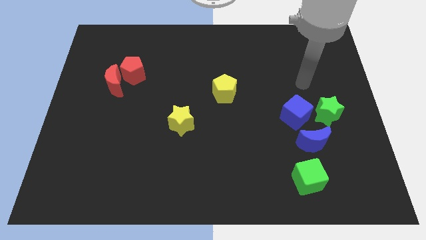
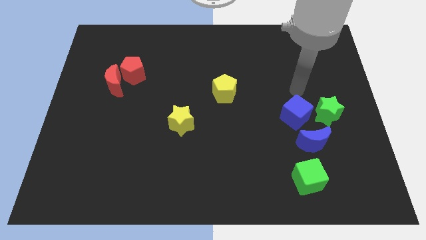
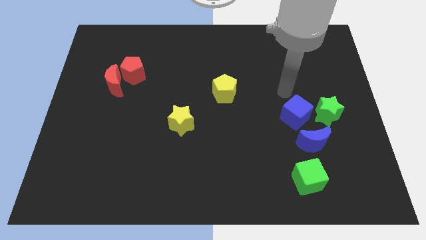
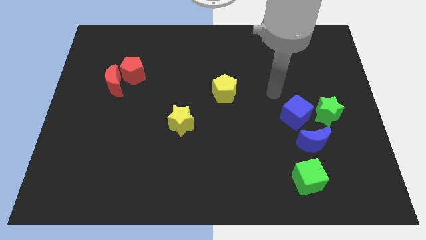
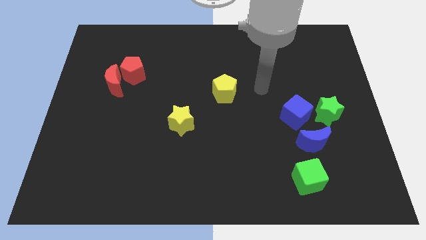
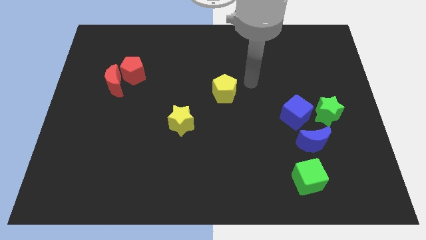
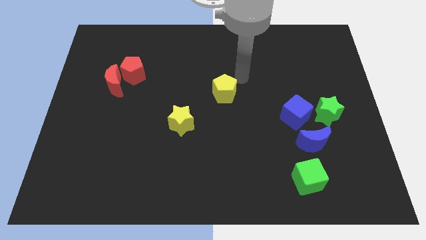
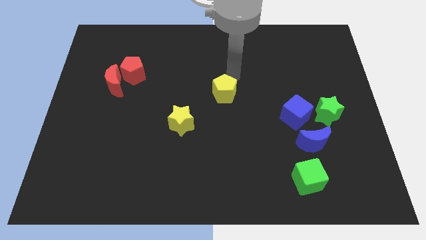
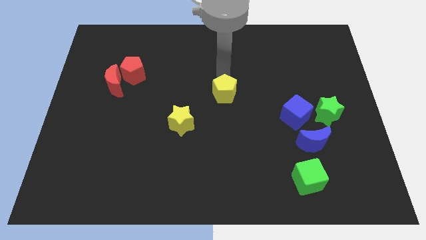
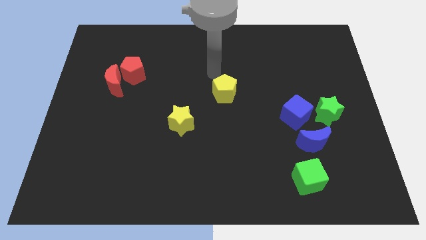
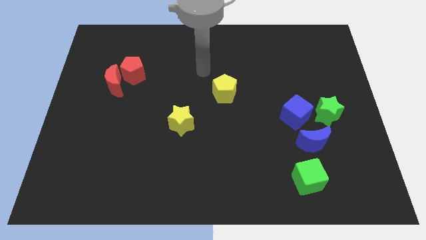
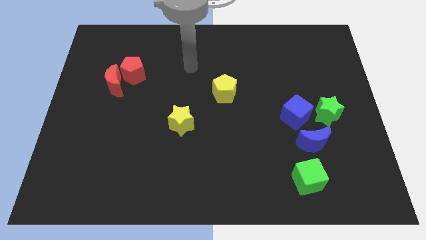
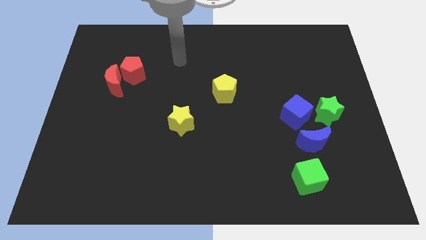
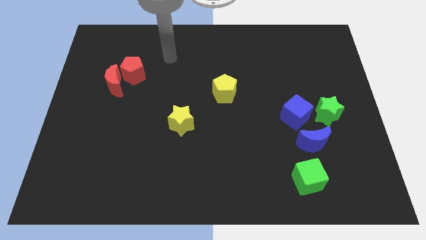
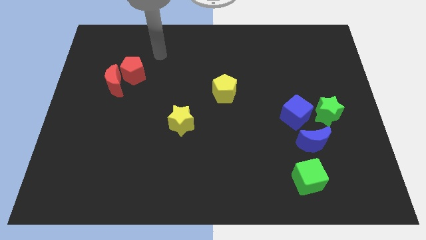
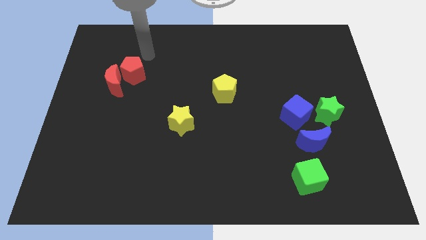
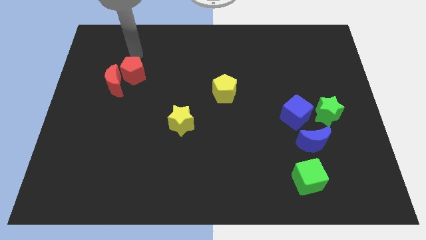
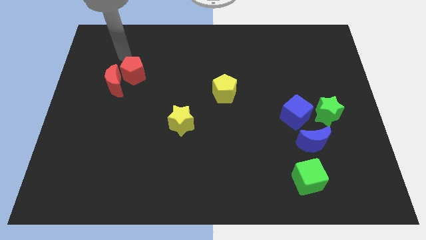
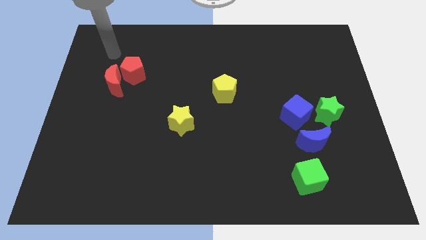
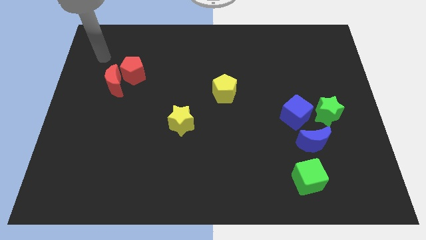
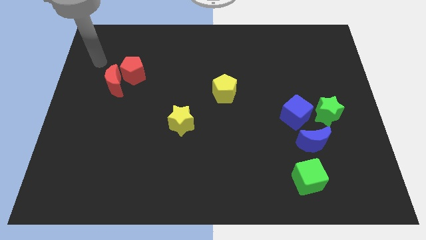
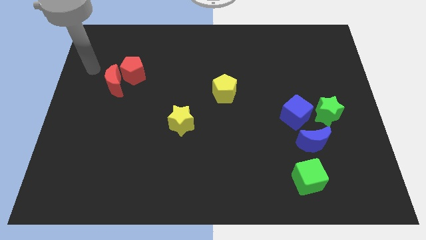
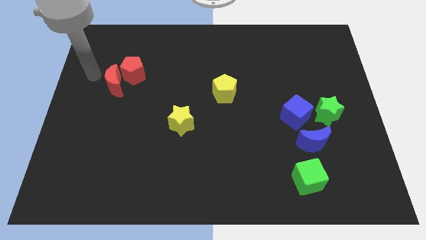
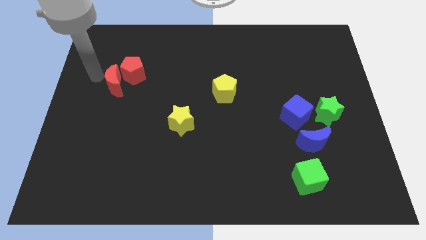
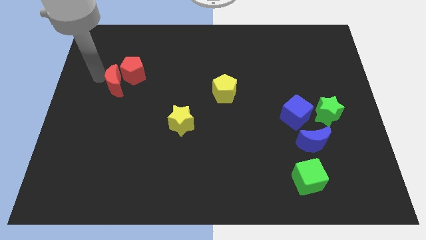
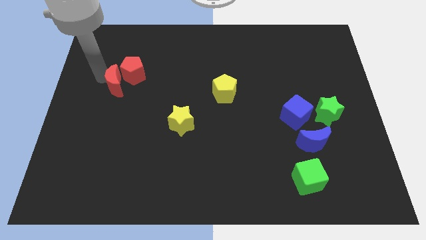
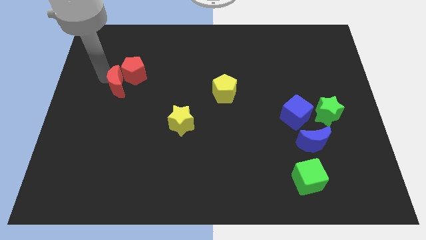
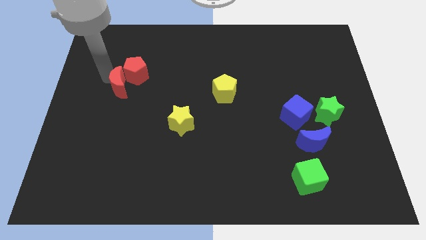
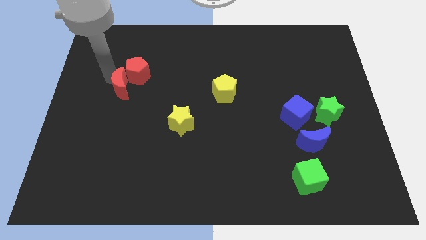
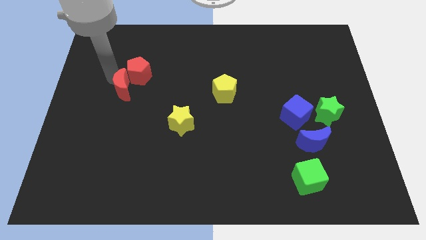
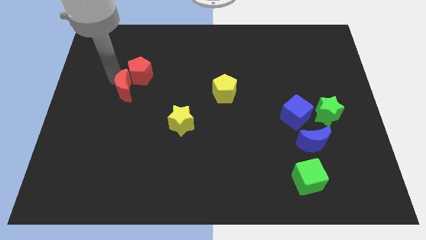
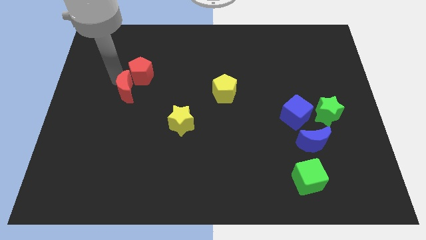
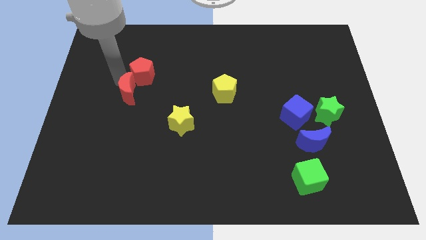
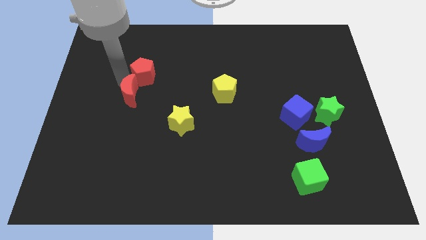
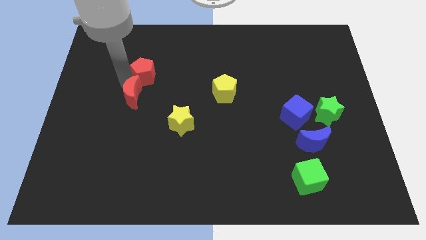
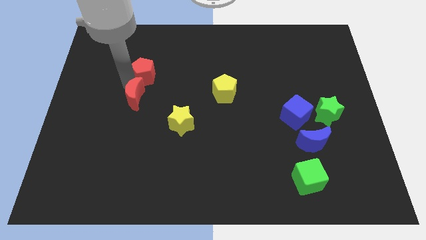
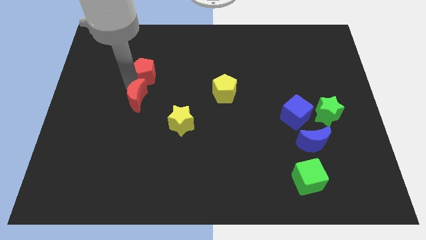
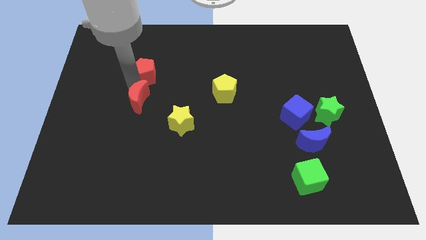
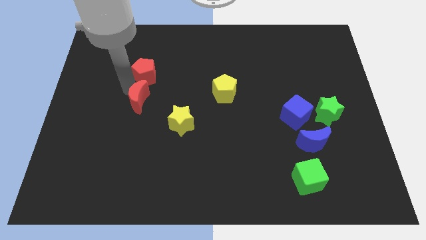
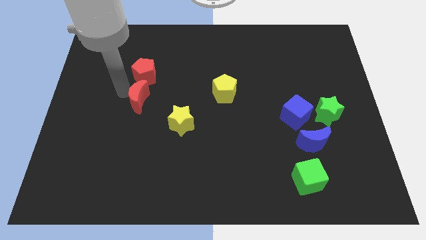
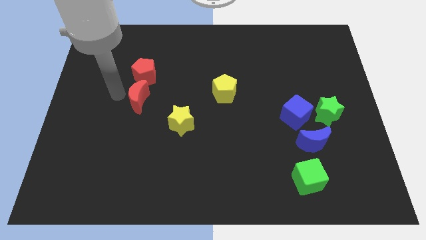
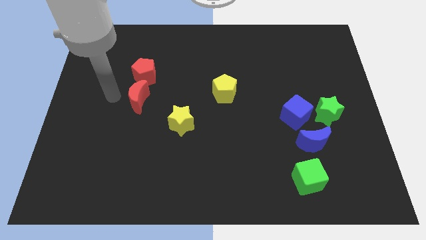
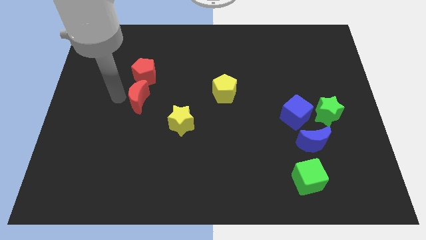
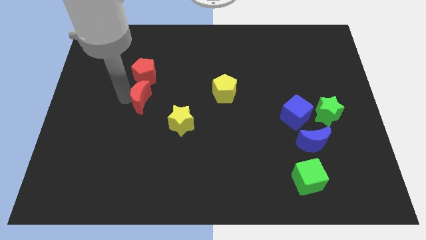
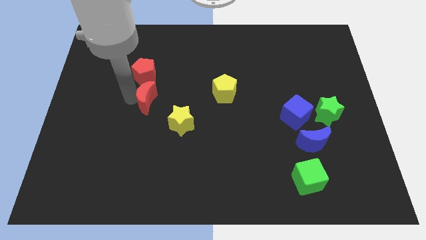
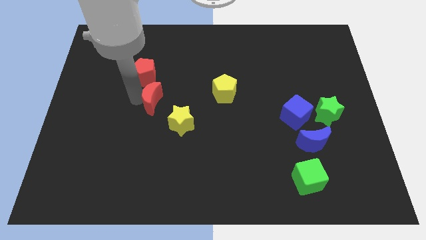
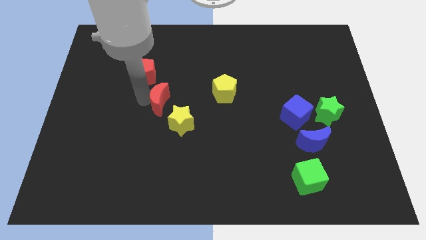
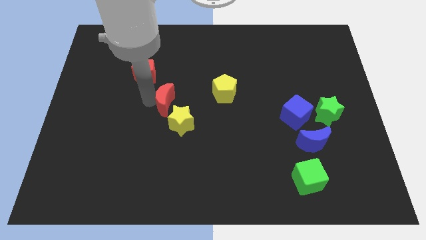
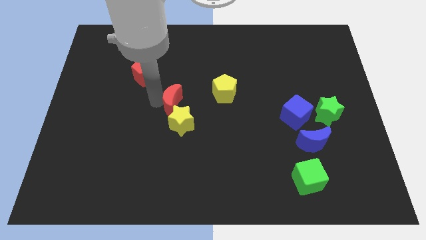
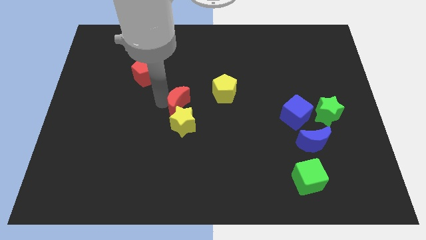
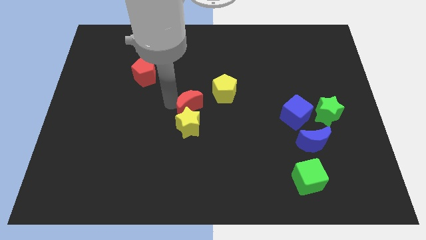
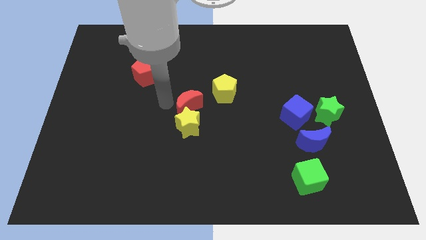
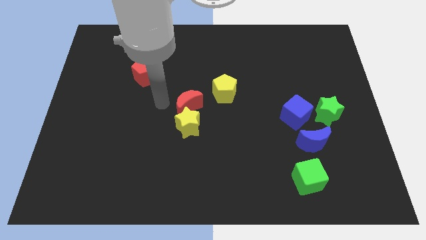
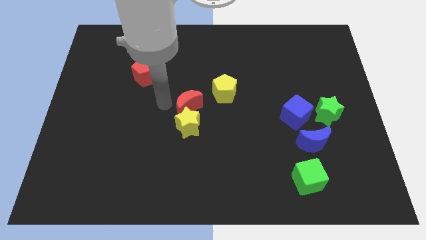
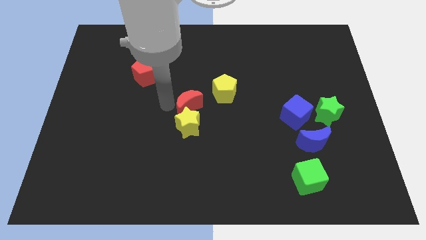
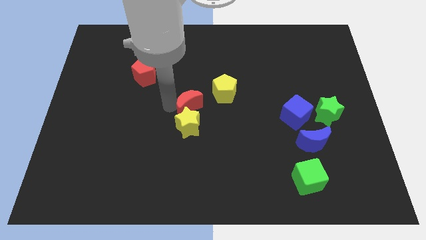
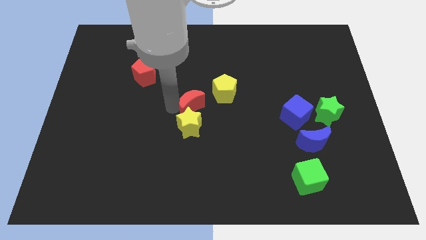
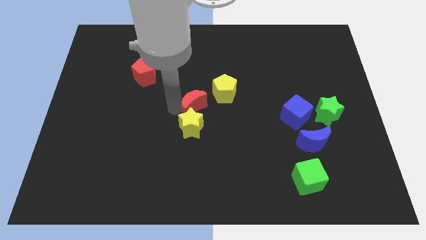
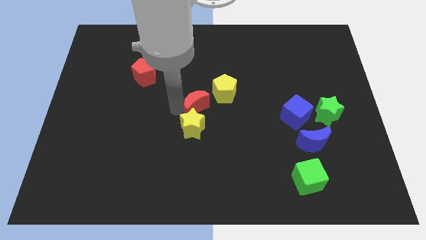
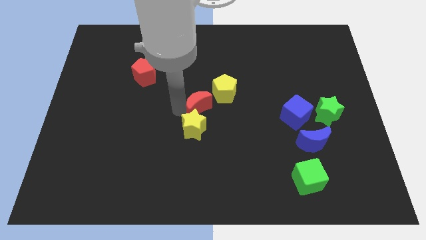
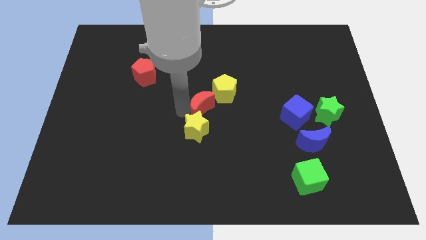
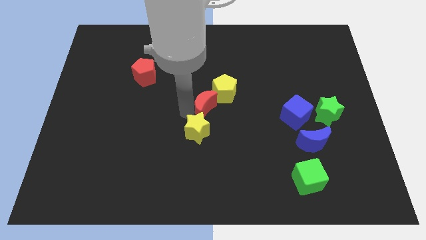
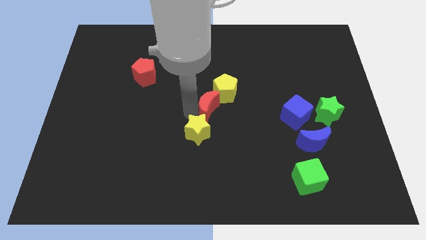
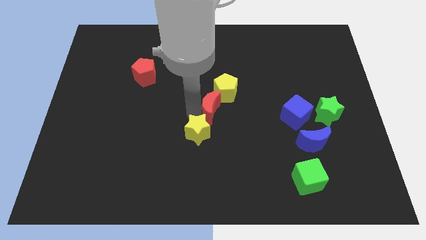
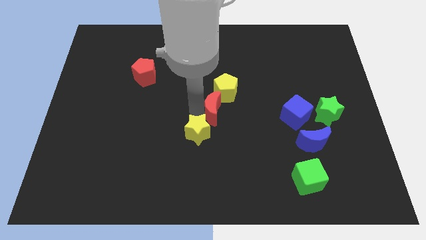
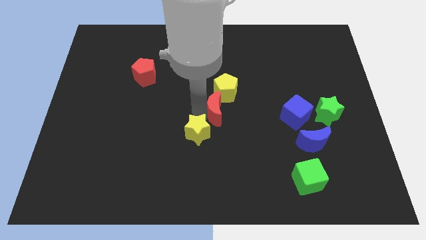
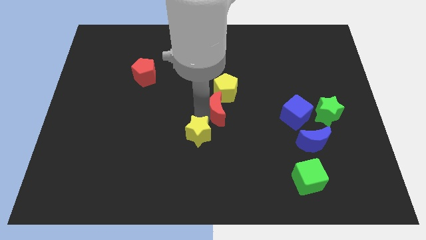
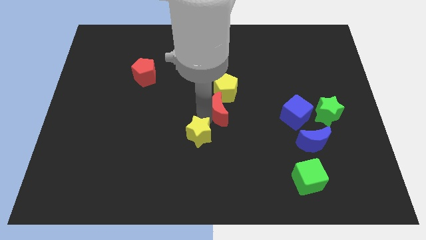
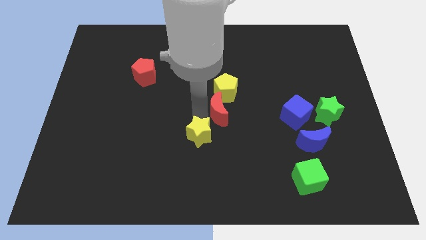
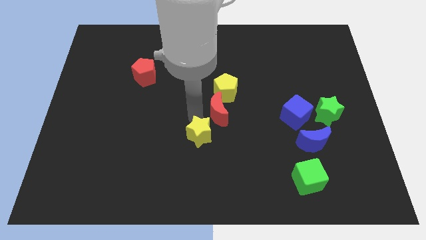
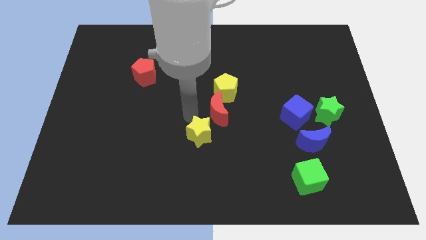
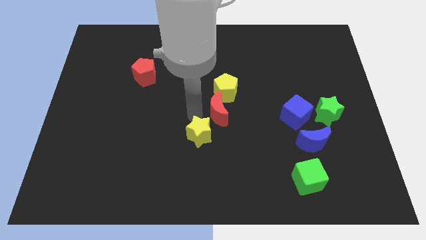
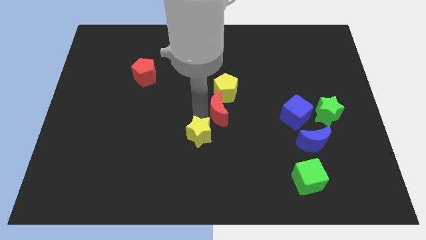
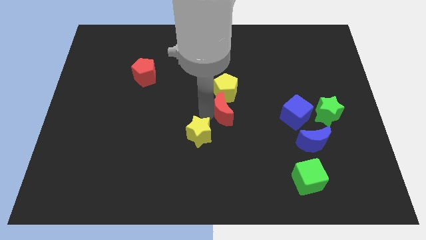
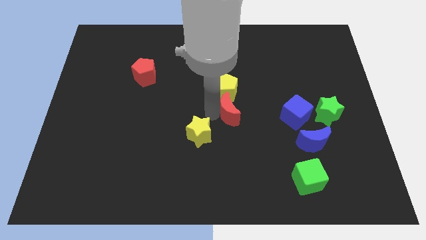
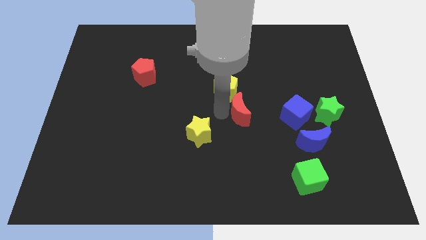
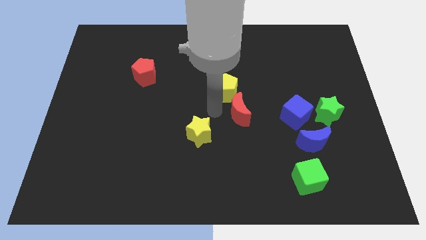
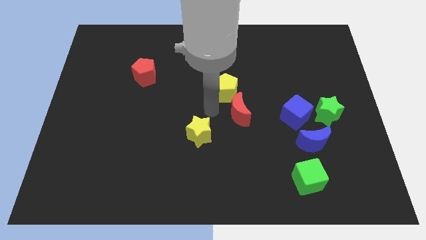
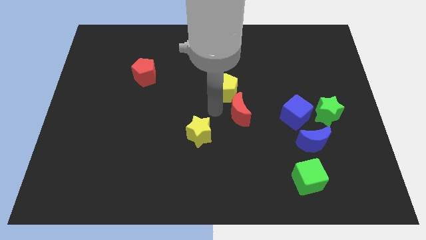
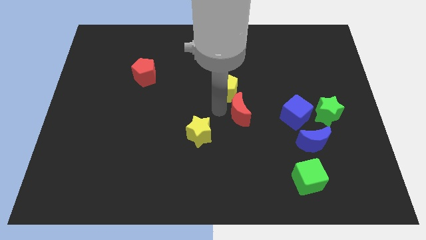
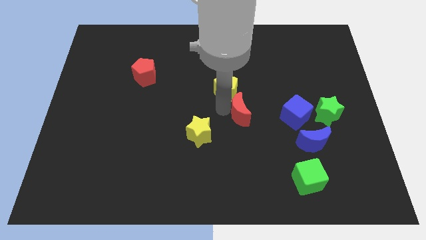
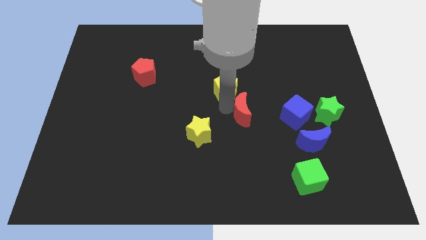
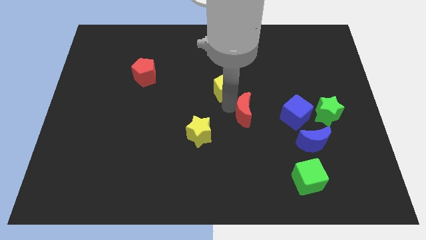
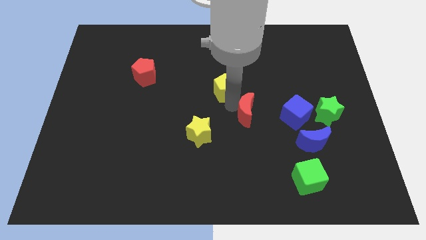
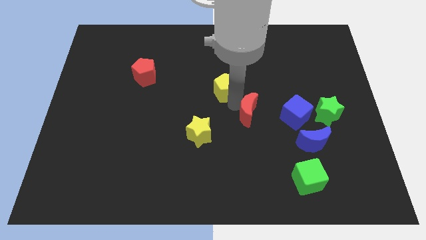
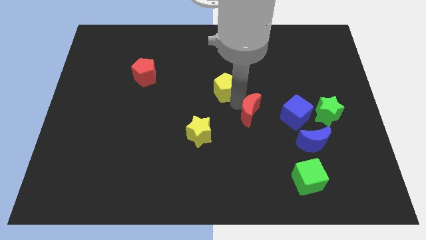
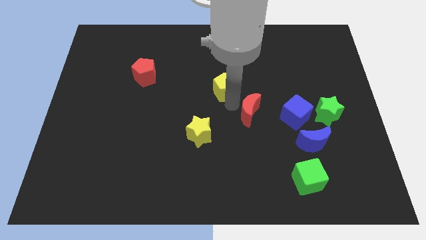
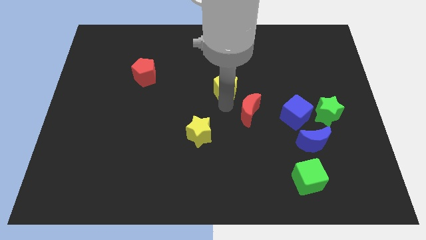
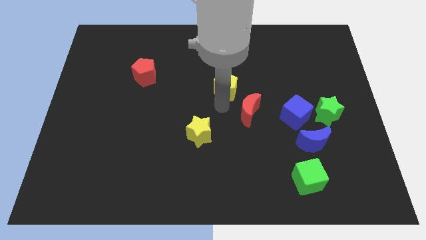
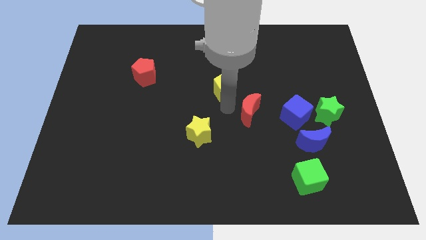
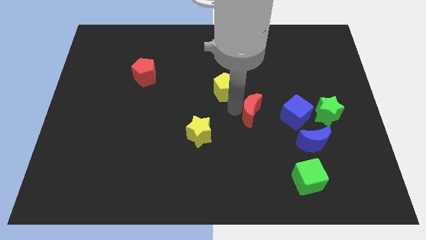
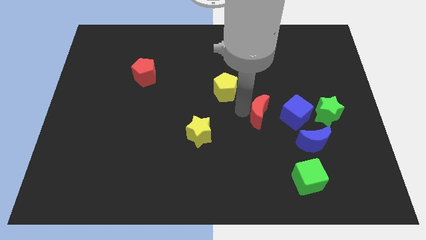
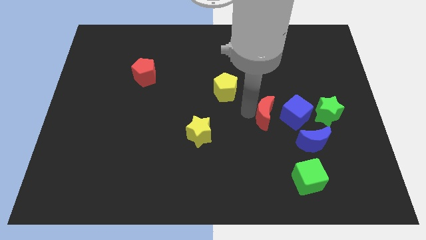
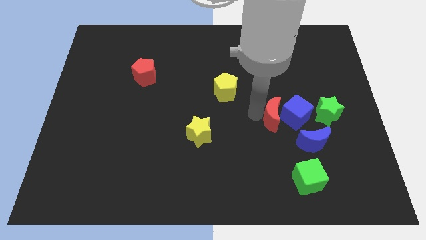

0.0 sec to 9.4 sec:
push the red moon close to the blue cube
